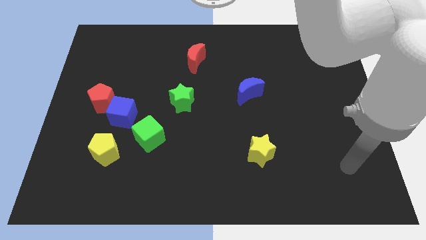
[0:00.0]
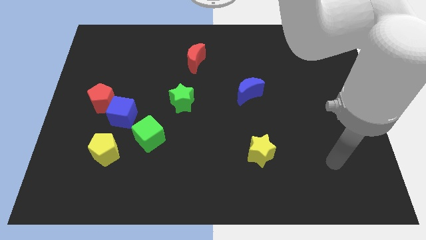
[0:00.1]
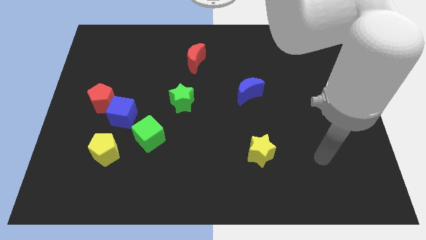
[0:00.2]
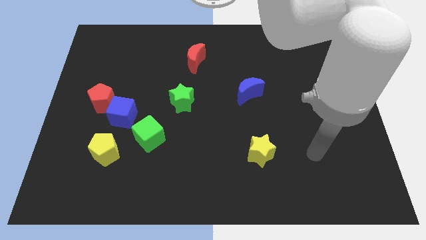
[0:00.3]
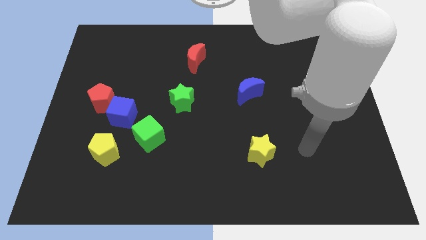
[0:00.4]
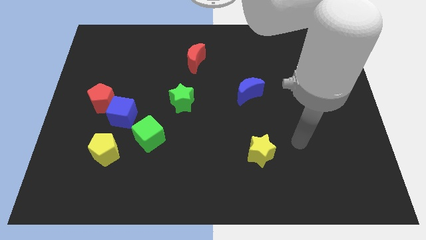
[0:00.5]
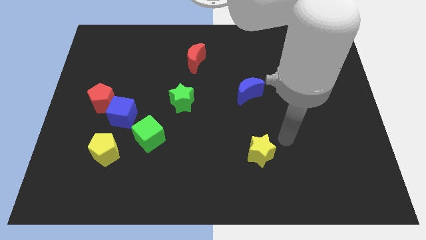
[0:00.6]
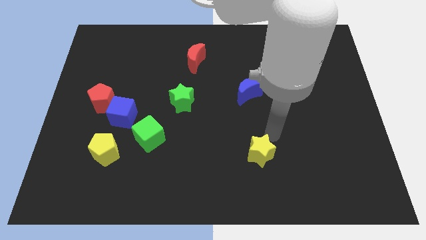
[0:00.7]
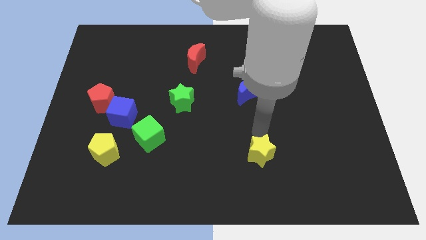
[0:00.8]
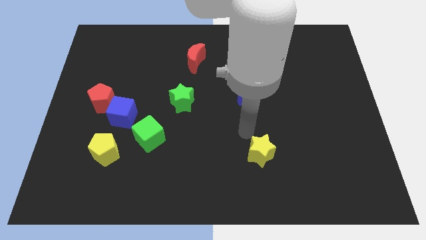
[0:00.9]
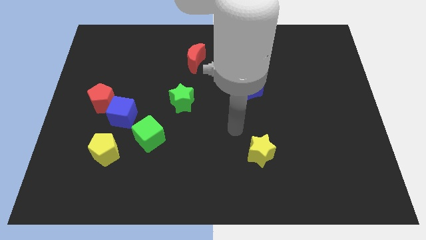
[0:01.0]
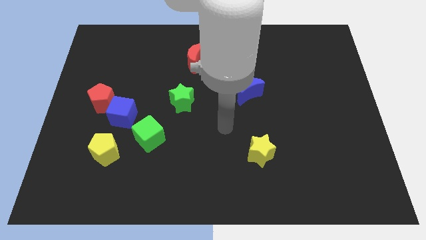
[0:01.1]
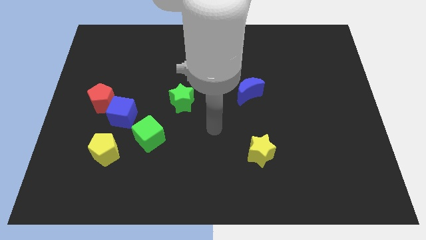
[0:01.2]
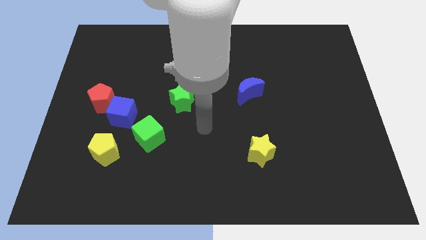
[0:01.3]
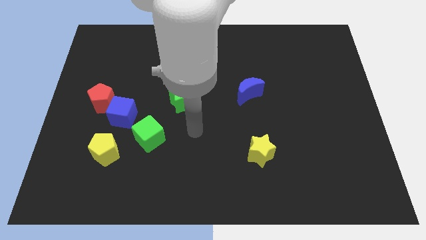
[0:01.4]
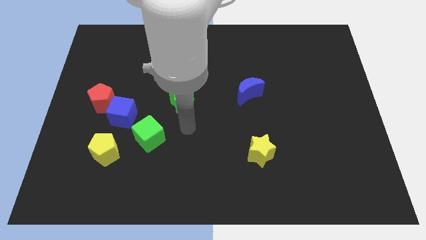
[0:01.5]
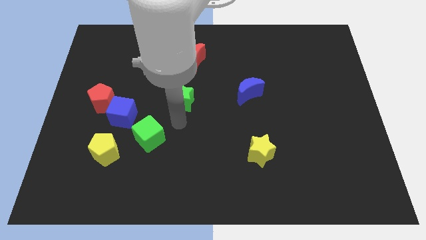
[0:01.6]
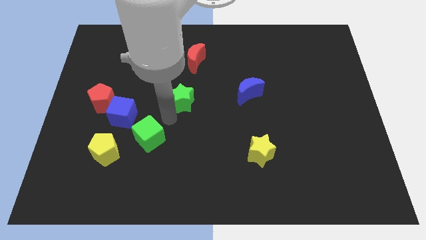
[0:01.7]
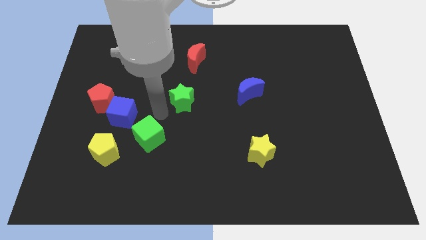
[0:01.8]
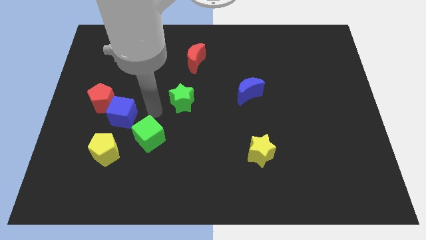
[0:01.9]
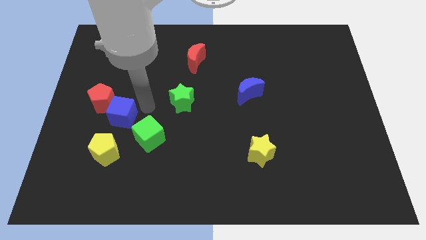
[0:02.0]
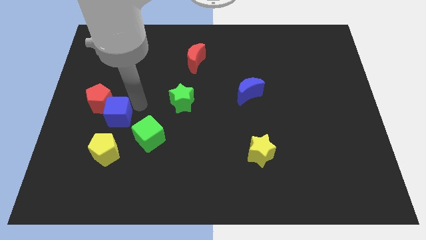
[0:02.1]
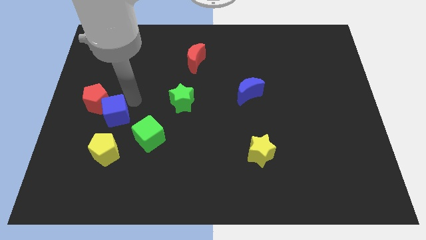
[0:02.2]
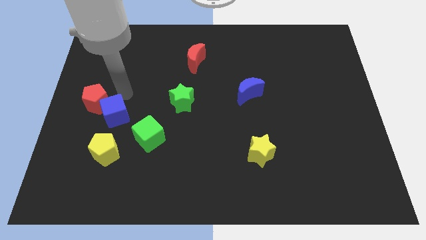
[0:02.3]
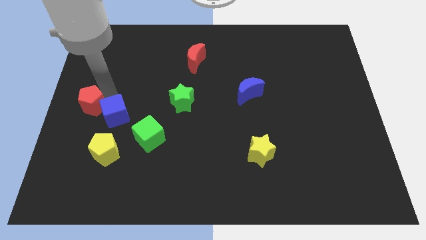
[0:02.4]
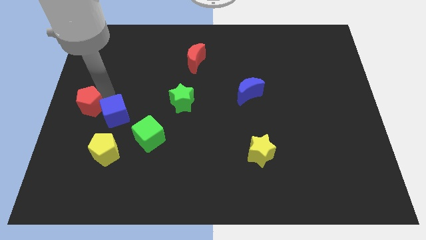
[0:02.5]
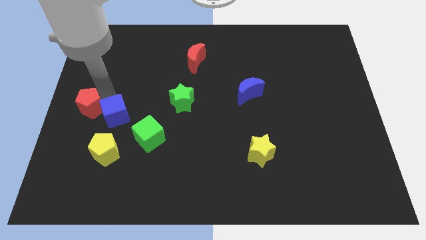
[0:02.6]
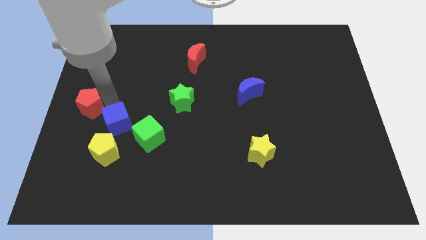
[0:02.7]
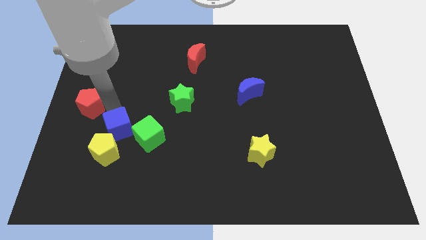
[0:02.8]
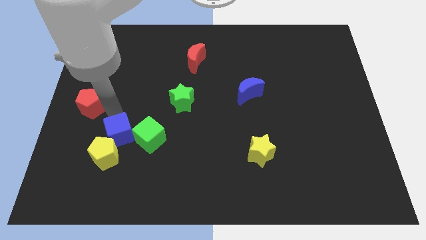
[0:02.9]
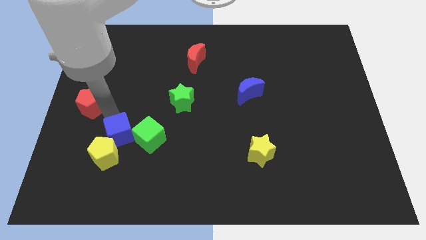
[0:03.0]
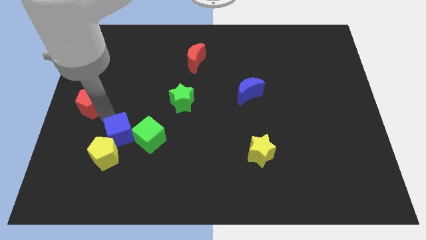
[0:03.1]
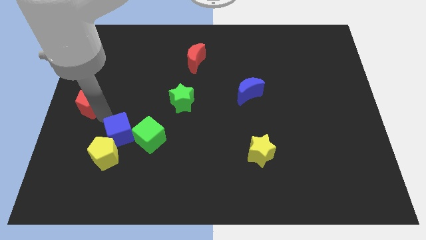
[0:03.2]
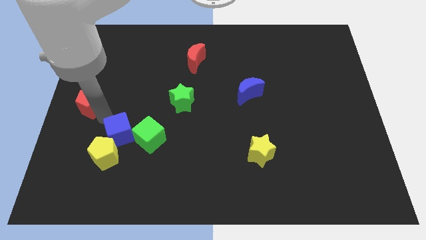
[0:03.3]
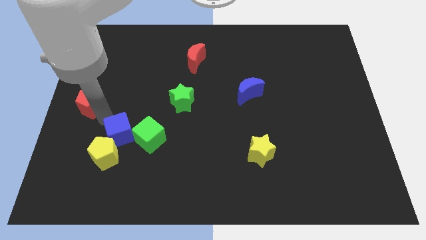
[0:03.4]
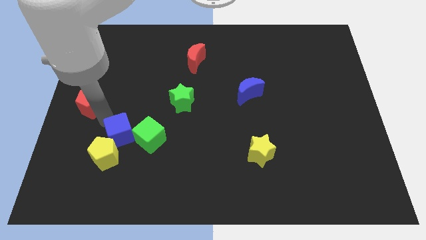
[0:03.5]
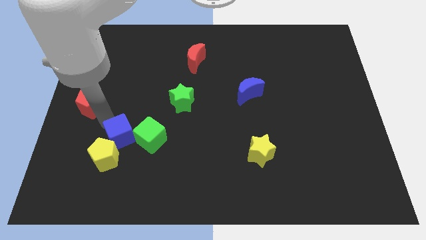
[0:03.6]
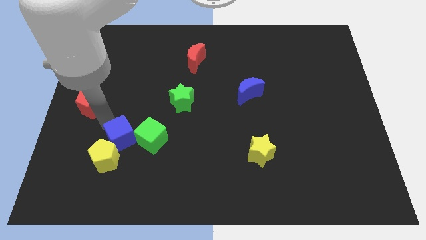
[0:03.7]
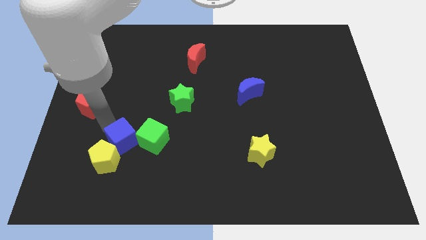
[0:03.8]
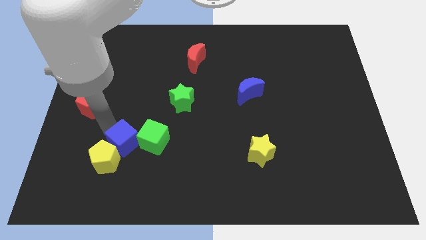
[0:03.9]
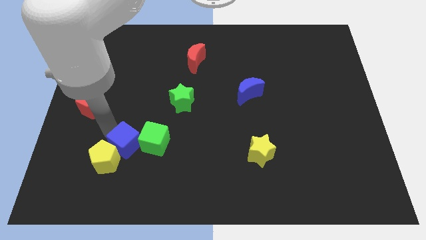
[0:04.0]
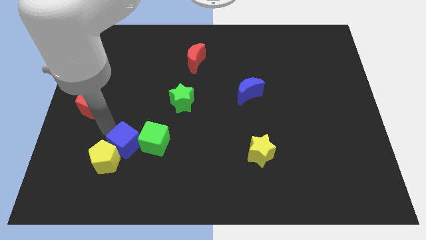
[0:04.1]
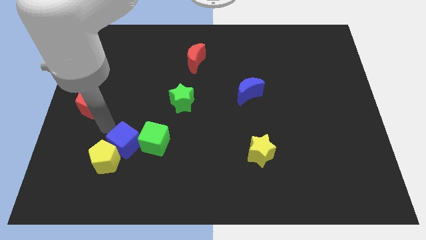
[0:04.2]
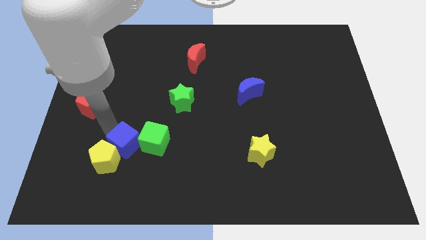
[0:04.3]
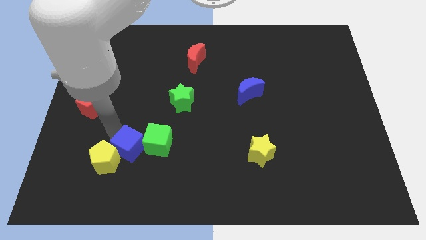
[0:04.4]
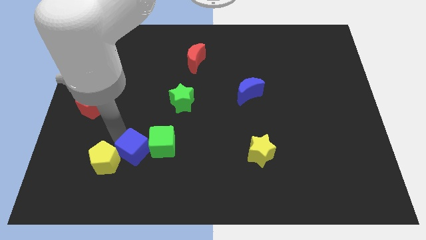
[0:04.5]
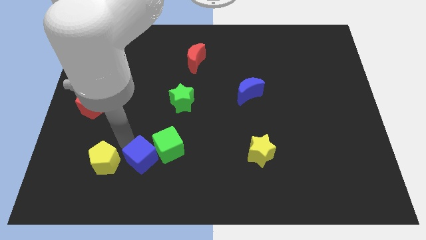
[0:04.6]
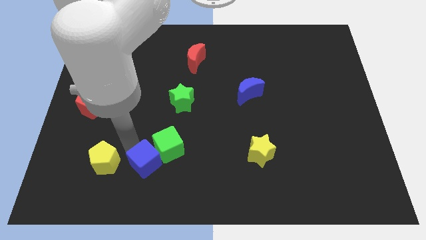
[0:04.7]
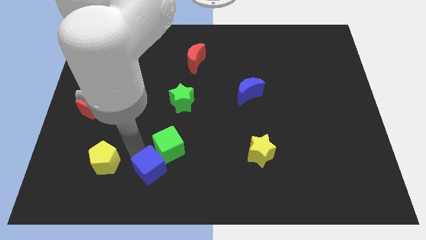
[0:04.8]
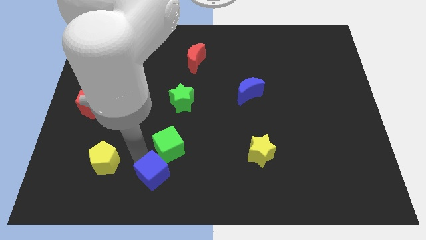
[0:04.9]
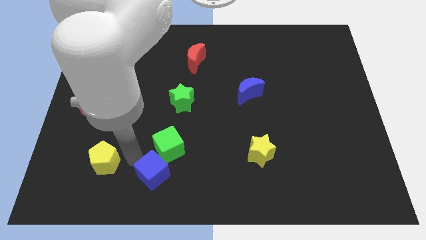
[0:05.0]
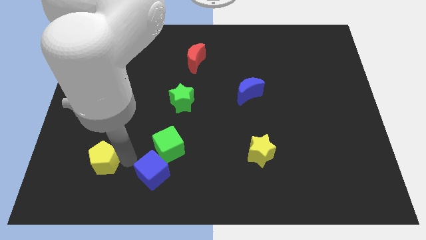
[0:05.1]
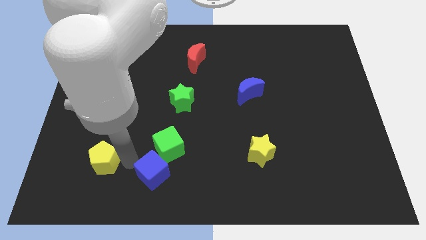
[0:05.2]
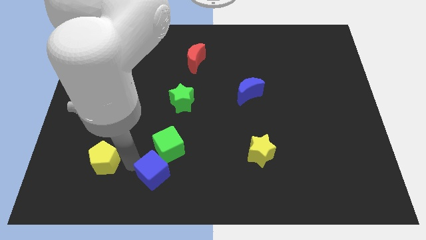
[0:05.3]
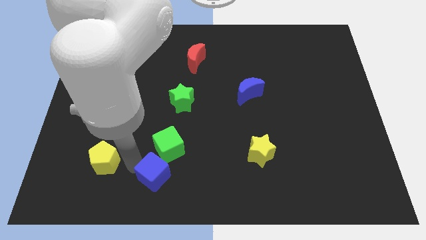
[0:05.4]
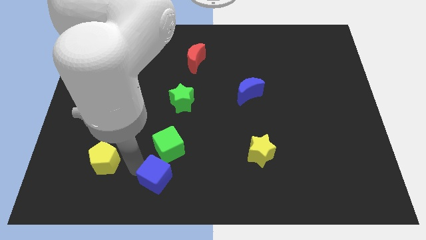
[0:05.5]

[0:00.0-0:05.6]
slide the blue cube to the bottom side
